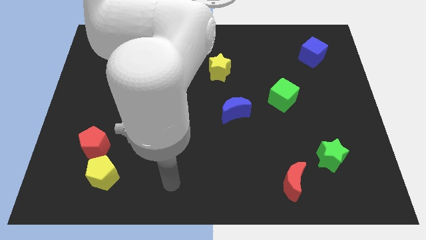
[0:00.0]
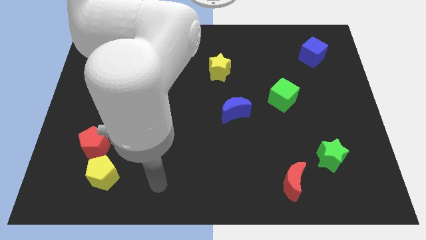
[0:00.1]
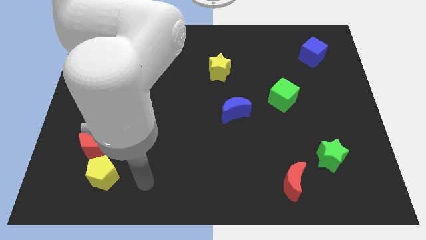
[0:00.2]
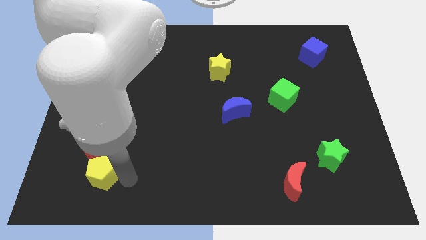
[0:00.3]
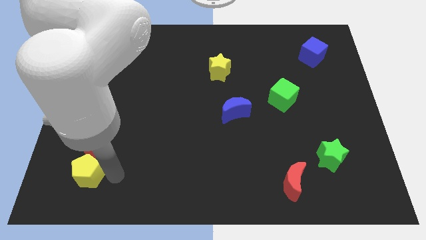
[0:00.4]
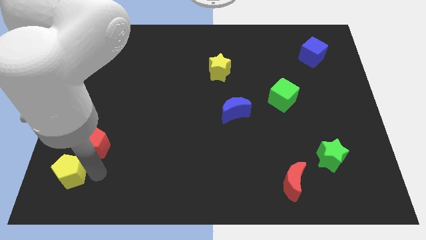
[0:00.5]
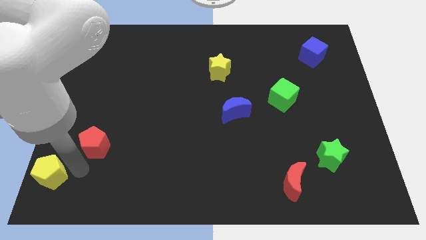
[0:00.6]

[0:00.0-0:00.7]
separate the red pentagon from the yellow pentagon

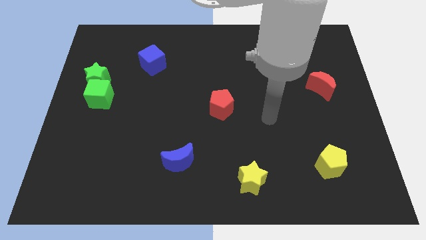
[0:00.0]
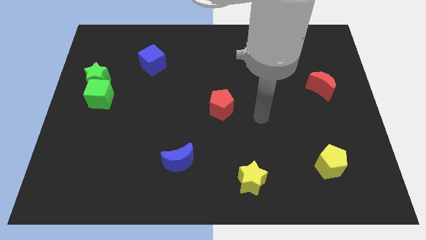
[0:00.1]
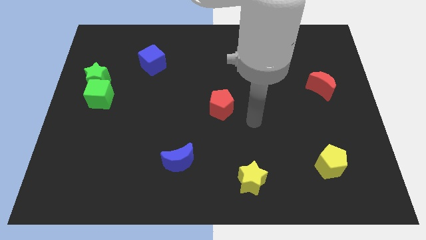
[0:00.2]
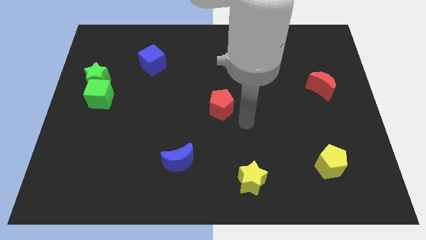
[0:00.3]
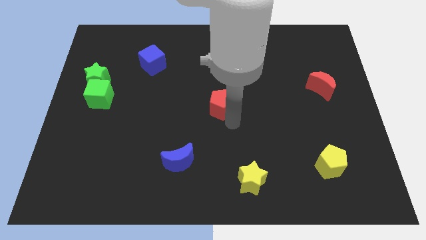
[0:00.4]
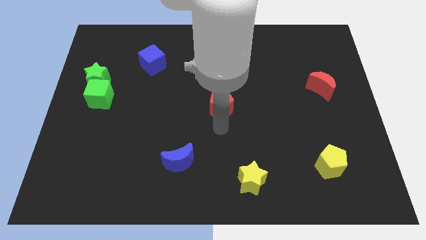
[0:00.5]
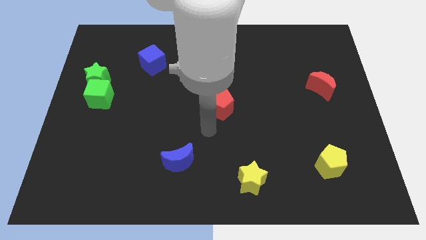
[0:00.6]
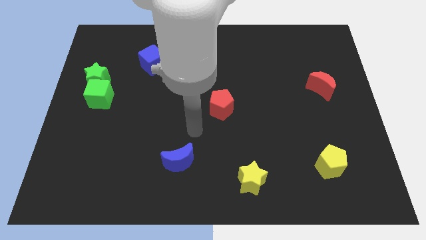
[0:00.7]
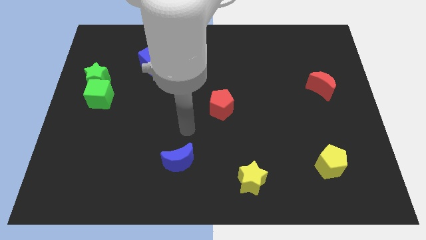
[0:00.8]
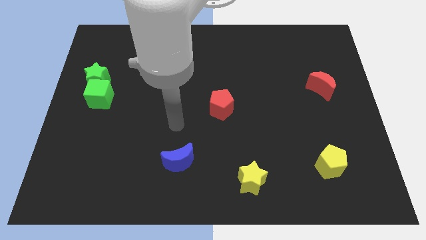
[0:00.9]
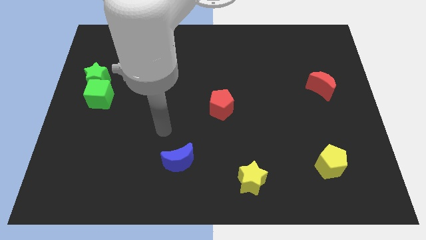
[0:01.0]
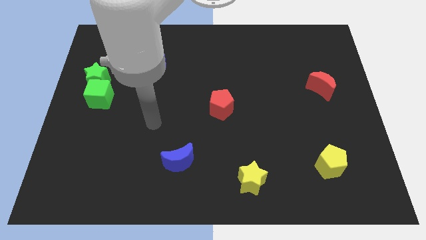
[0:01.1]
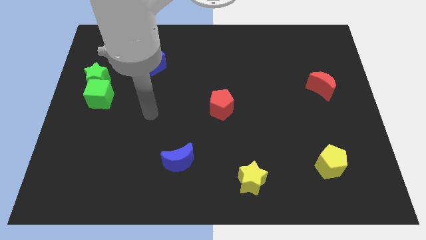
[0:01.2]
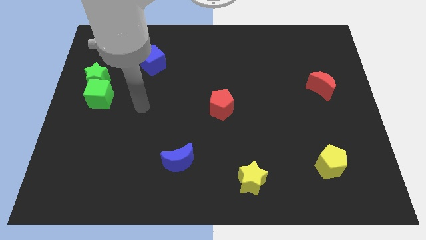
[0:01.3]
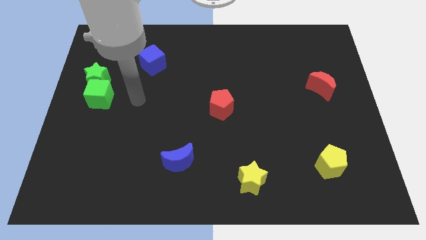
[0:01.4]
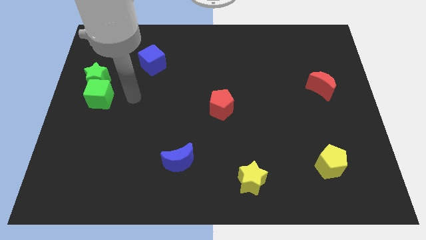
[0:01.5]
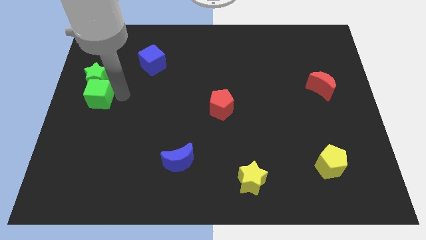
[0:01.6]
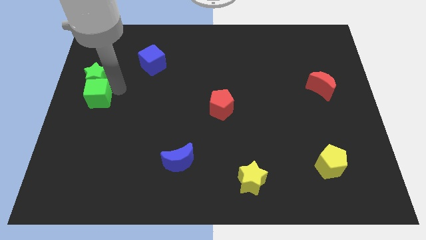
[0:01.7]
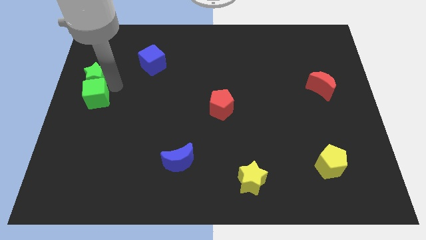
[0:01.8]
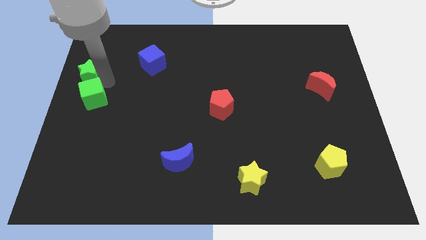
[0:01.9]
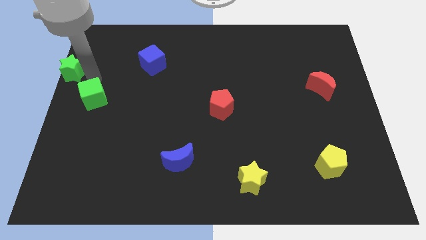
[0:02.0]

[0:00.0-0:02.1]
pull the green cube apart from the green star

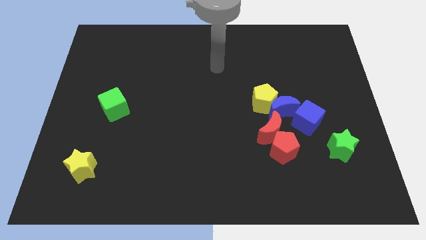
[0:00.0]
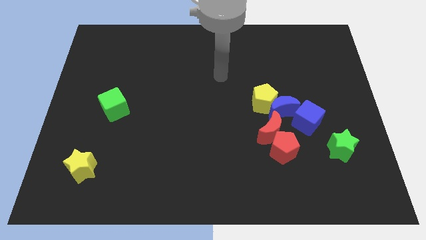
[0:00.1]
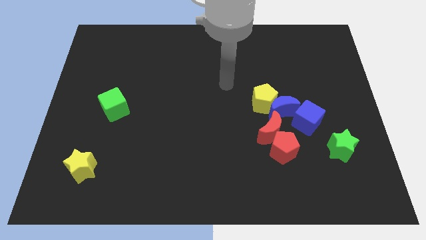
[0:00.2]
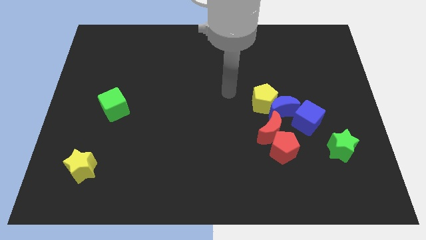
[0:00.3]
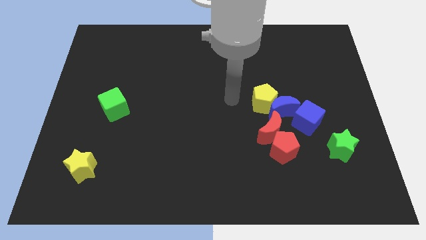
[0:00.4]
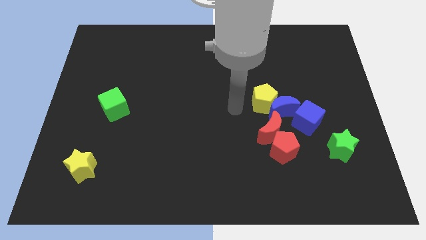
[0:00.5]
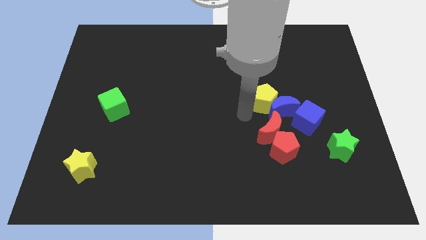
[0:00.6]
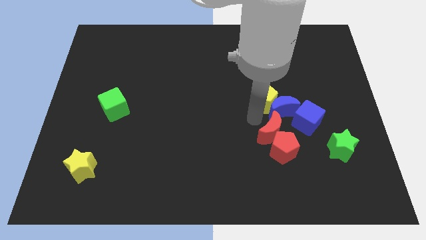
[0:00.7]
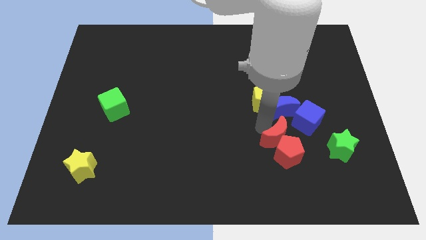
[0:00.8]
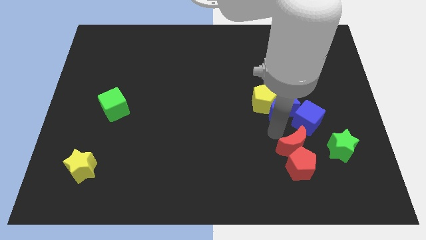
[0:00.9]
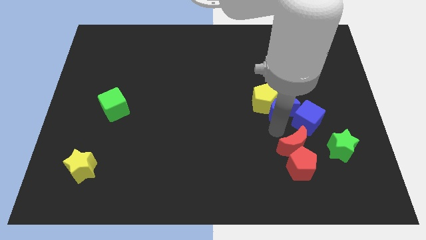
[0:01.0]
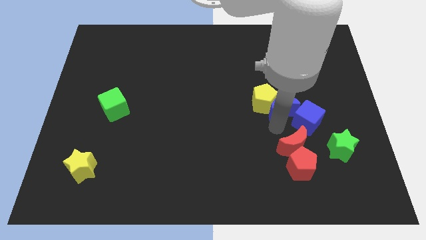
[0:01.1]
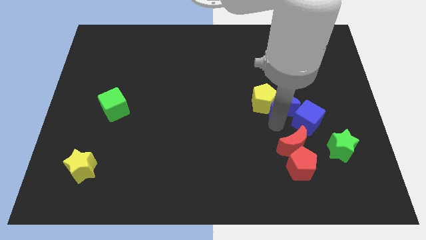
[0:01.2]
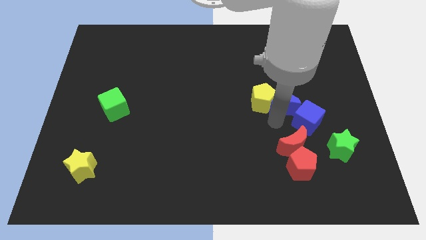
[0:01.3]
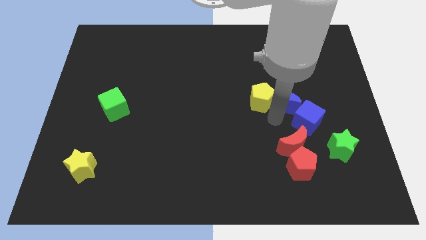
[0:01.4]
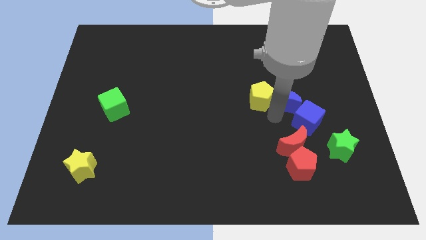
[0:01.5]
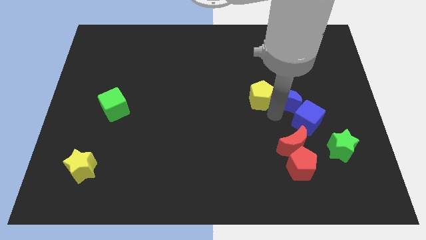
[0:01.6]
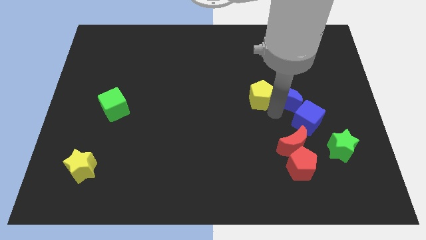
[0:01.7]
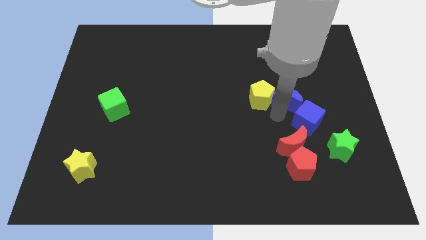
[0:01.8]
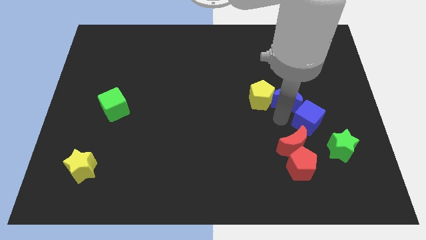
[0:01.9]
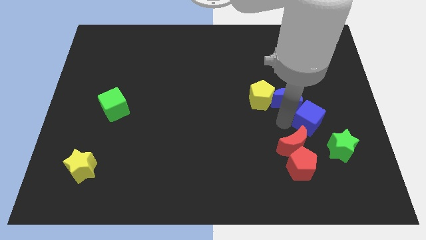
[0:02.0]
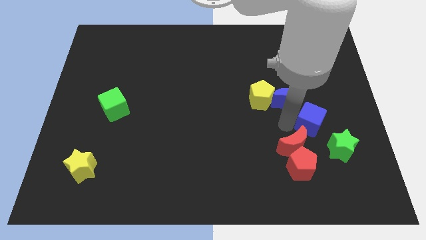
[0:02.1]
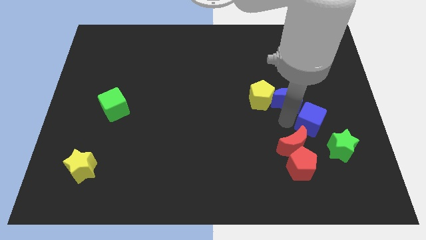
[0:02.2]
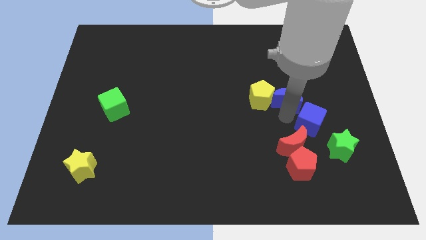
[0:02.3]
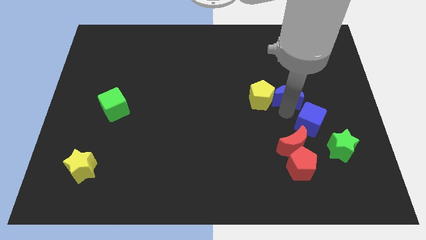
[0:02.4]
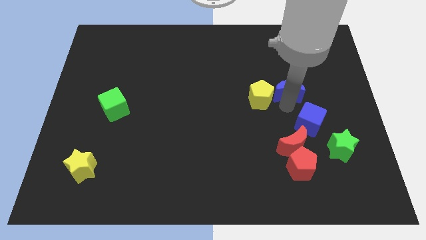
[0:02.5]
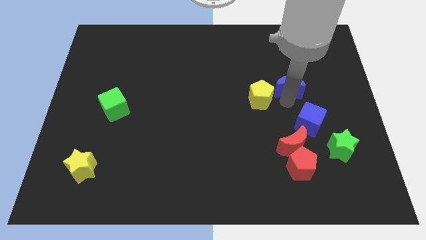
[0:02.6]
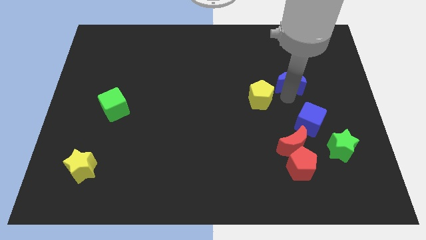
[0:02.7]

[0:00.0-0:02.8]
pull the blue moon apart from the group

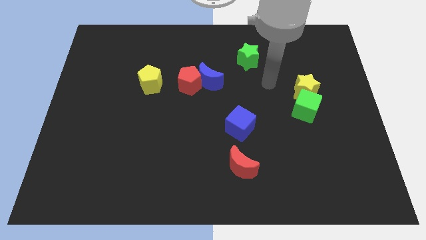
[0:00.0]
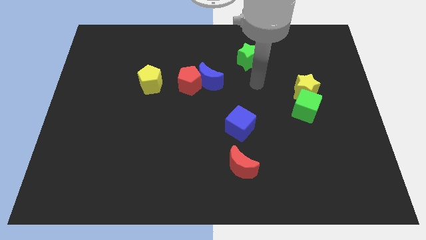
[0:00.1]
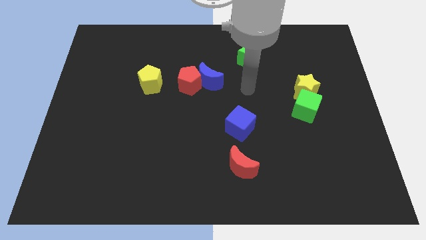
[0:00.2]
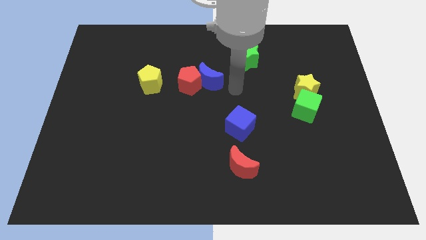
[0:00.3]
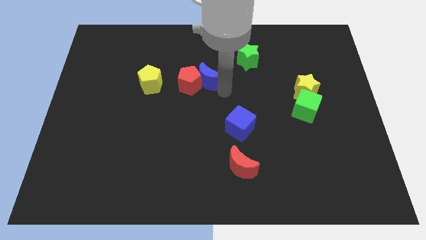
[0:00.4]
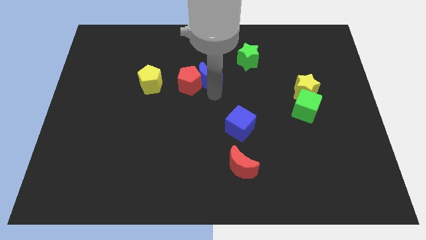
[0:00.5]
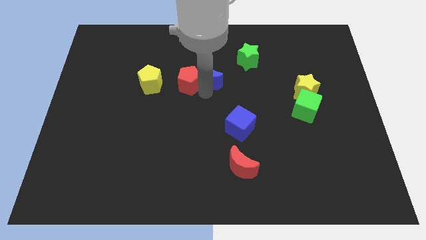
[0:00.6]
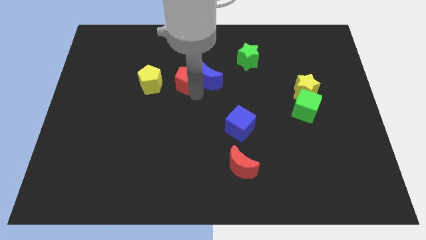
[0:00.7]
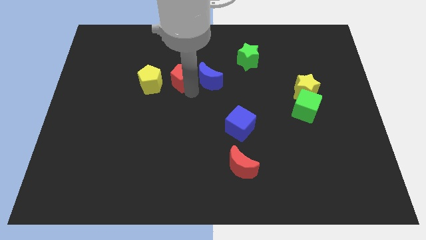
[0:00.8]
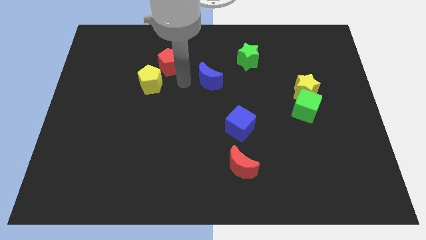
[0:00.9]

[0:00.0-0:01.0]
move the blue moon away from the red pentagon

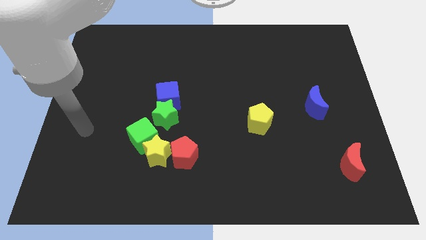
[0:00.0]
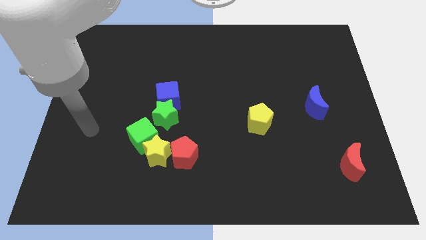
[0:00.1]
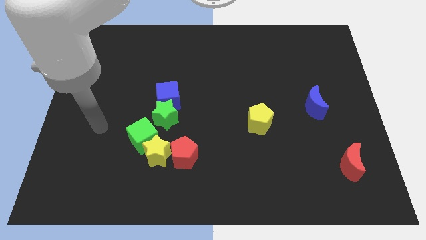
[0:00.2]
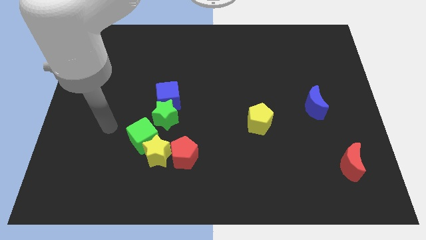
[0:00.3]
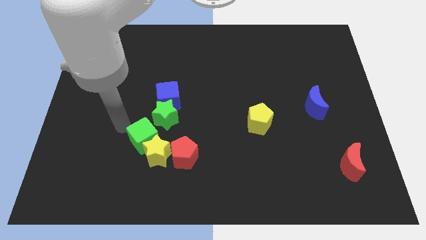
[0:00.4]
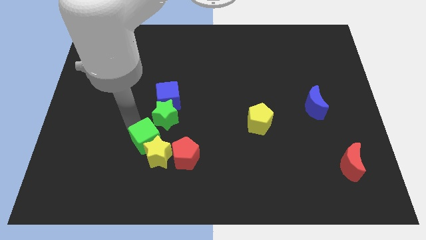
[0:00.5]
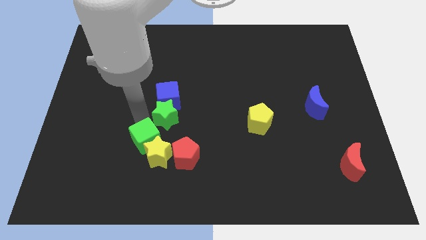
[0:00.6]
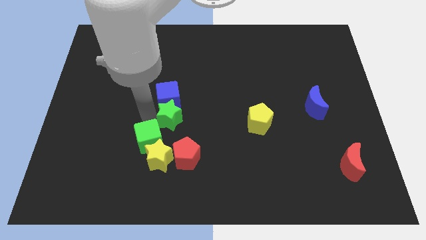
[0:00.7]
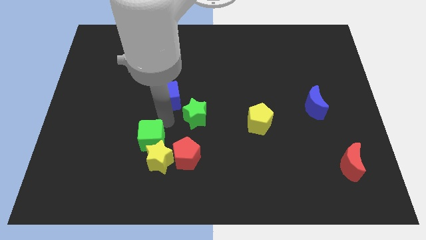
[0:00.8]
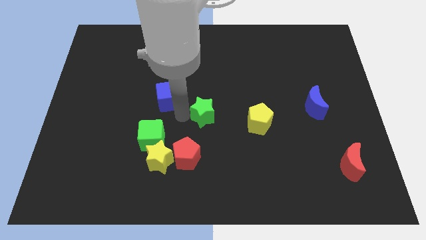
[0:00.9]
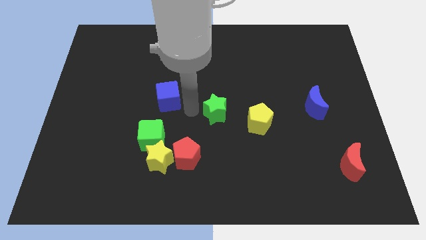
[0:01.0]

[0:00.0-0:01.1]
move the blue cube away from the green star

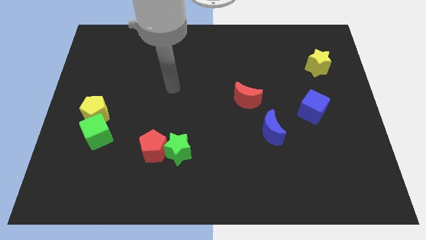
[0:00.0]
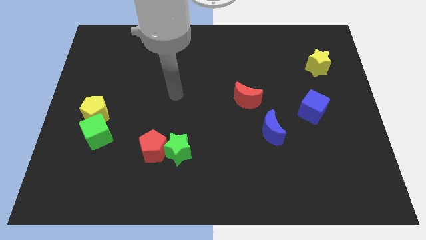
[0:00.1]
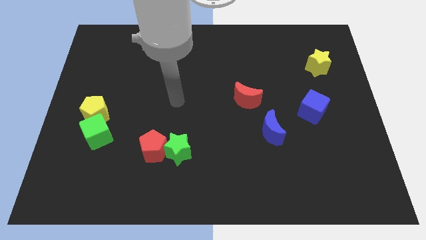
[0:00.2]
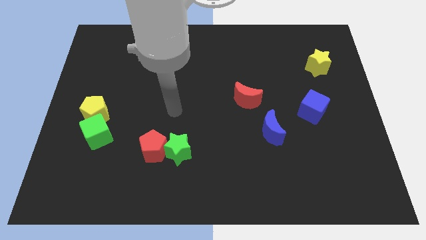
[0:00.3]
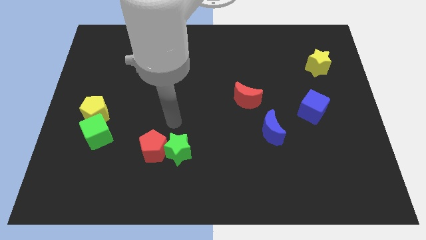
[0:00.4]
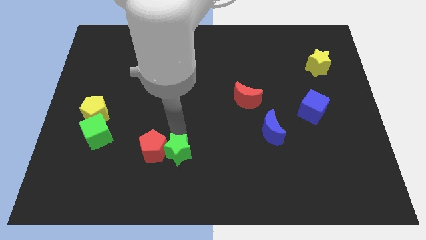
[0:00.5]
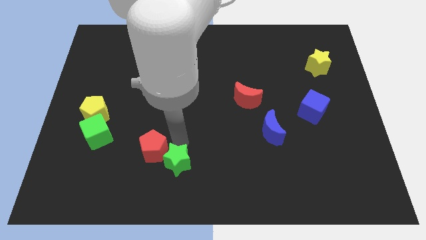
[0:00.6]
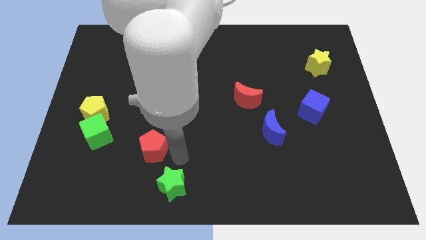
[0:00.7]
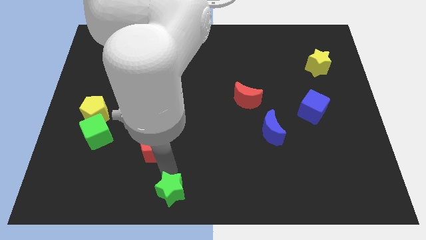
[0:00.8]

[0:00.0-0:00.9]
pull the red pentagon apart from the green star

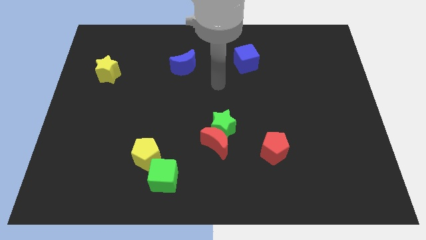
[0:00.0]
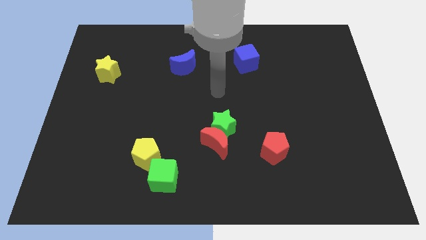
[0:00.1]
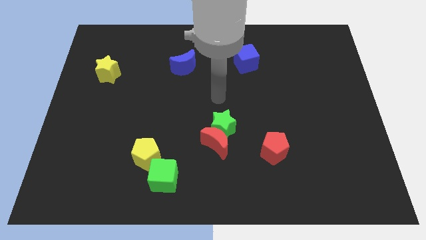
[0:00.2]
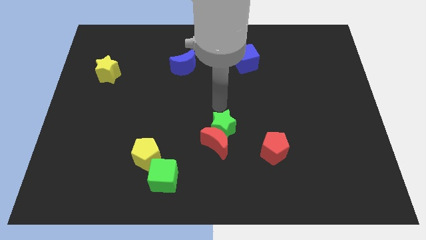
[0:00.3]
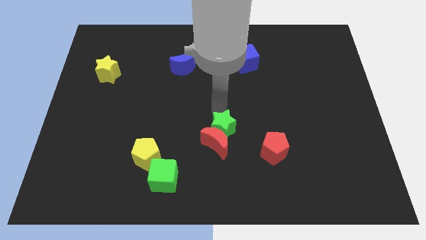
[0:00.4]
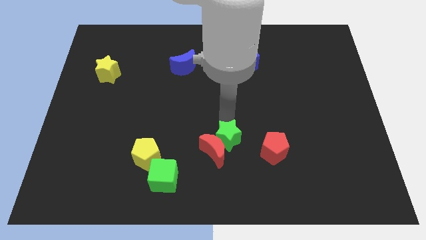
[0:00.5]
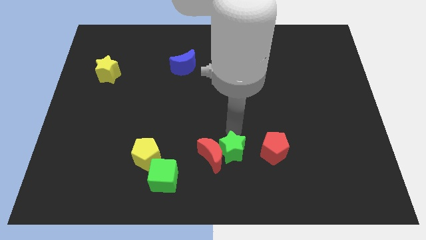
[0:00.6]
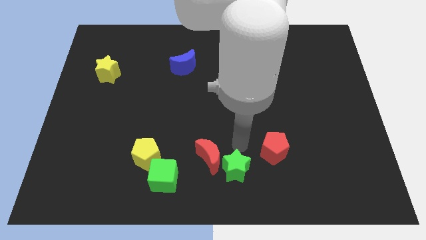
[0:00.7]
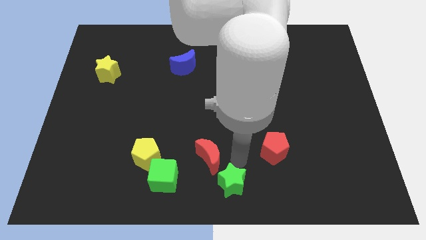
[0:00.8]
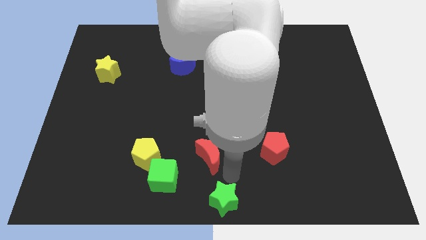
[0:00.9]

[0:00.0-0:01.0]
separate the red moon from the green star
